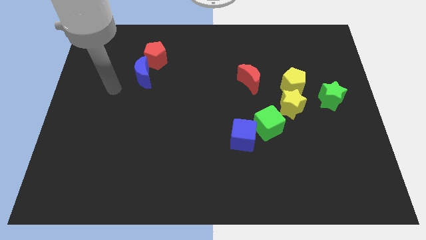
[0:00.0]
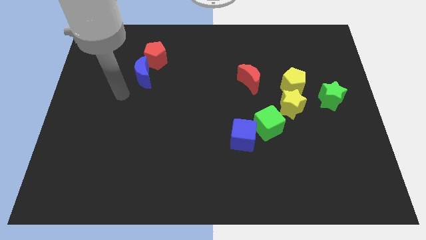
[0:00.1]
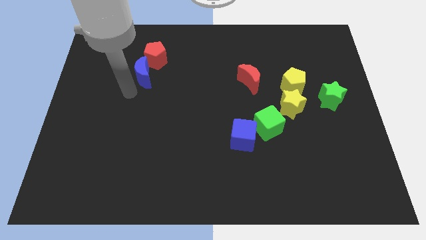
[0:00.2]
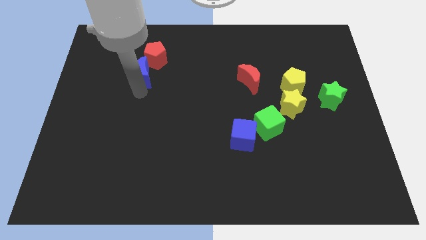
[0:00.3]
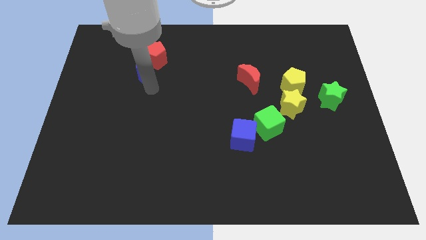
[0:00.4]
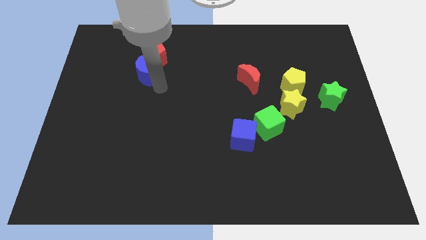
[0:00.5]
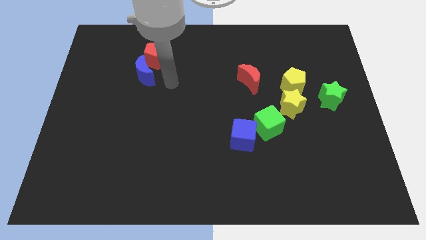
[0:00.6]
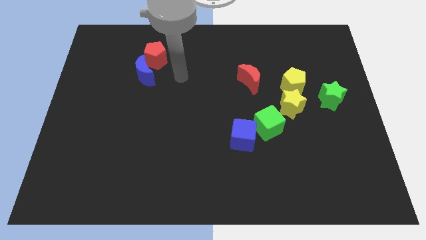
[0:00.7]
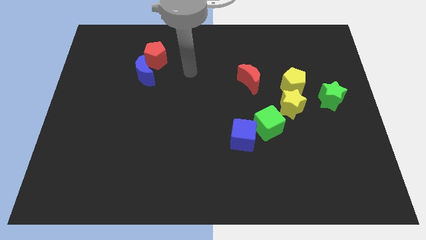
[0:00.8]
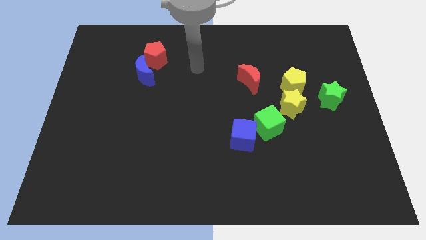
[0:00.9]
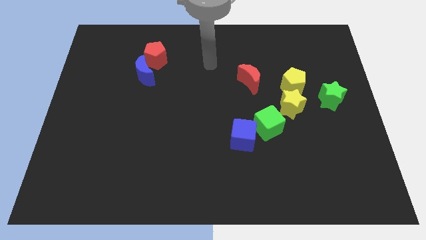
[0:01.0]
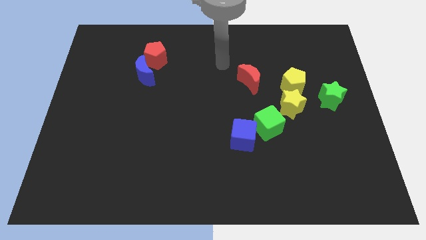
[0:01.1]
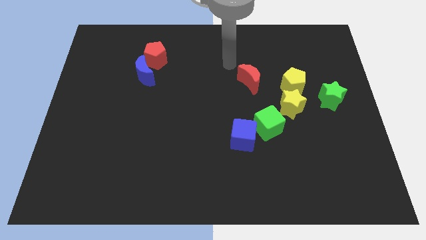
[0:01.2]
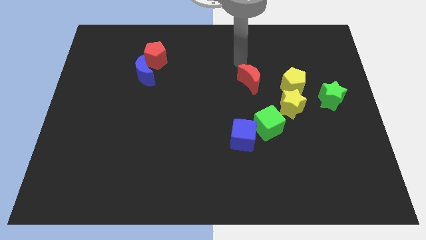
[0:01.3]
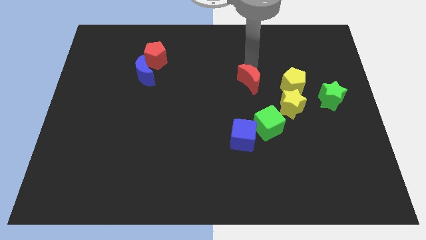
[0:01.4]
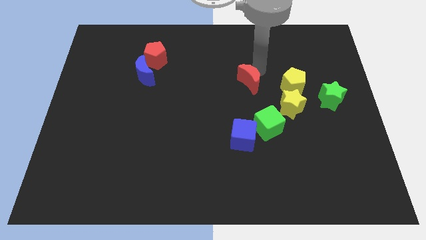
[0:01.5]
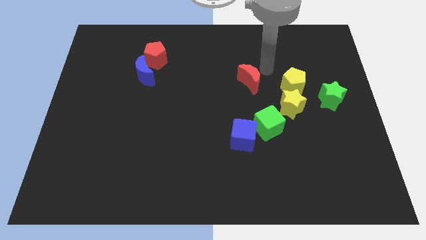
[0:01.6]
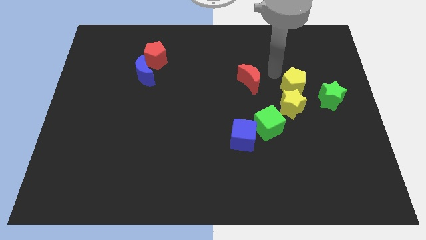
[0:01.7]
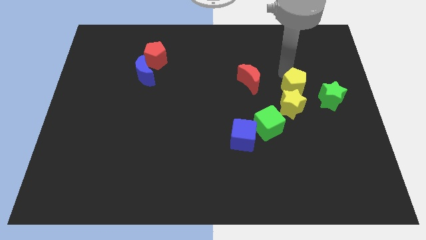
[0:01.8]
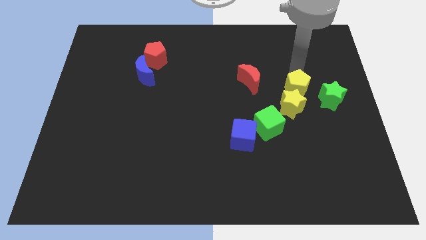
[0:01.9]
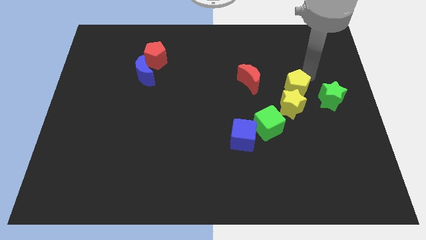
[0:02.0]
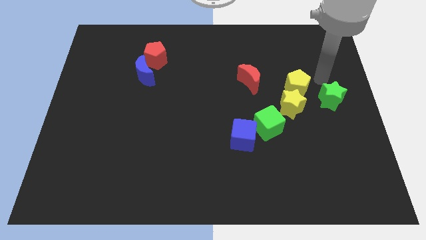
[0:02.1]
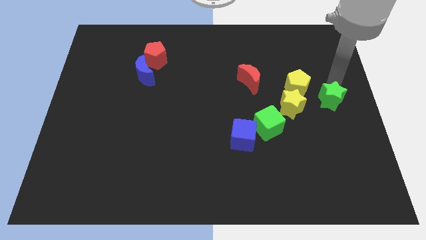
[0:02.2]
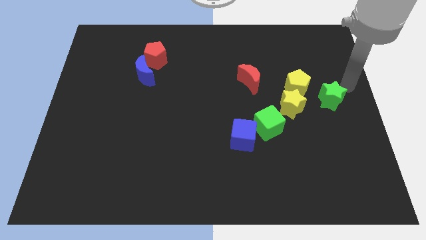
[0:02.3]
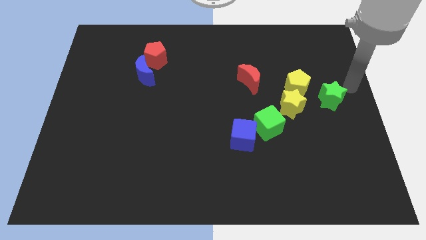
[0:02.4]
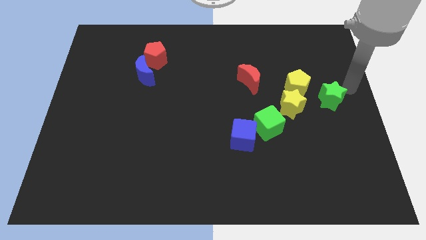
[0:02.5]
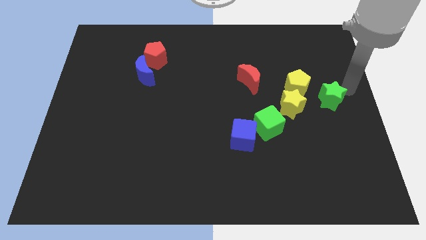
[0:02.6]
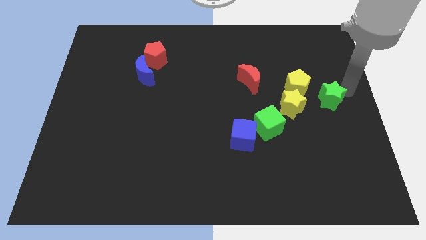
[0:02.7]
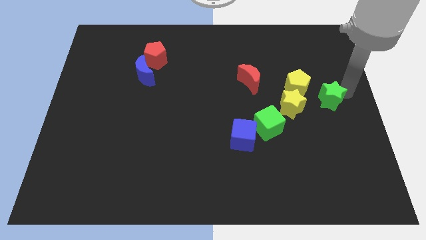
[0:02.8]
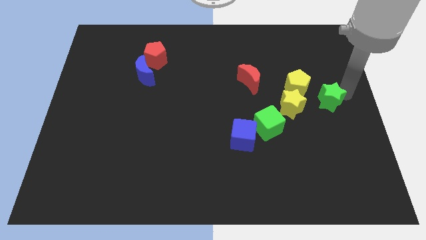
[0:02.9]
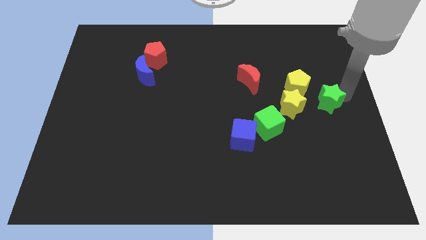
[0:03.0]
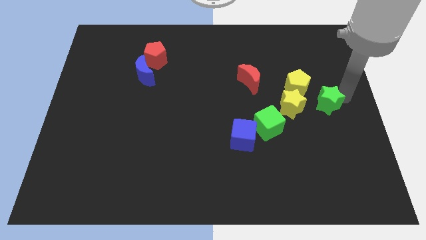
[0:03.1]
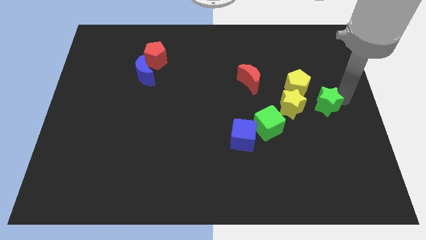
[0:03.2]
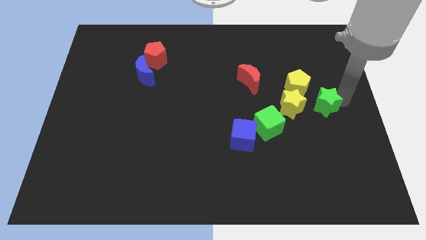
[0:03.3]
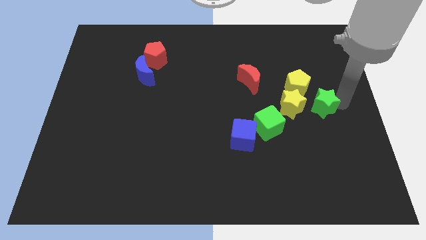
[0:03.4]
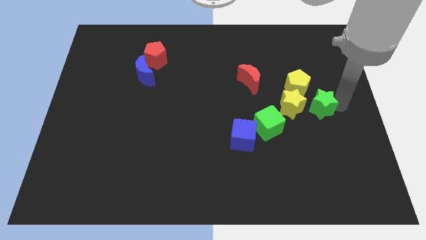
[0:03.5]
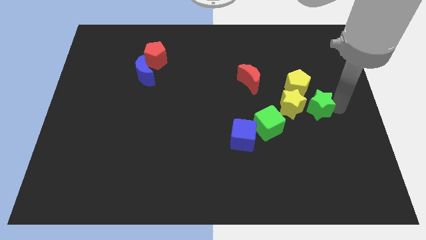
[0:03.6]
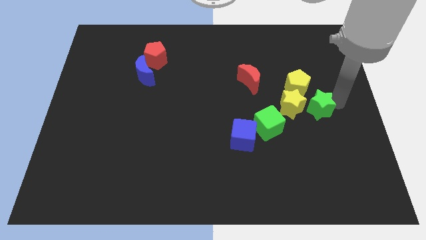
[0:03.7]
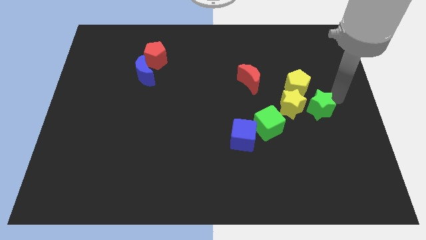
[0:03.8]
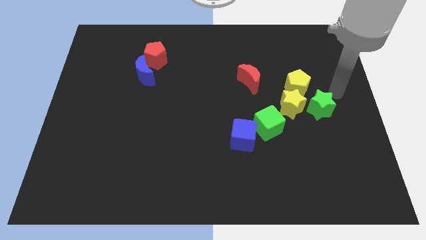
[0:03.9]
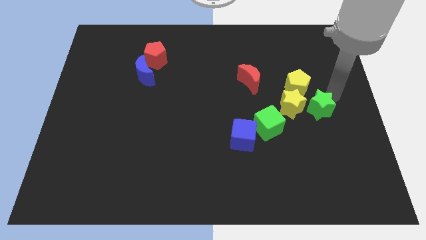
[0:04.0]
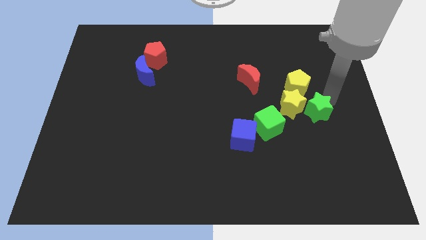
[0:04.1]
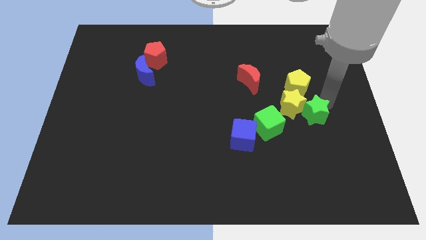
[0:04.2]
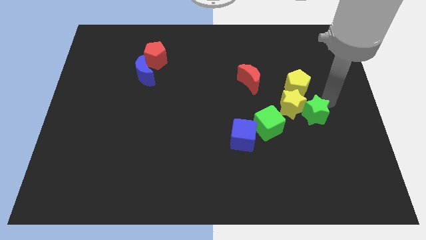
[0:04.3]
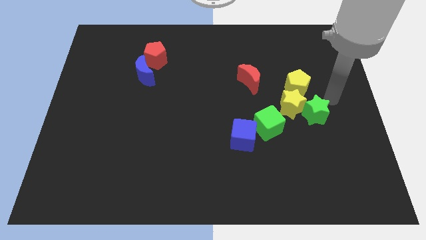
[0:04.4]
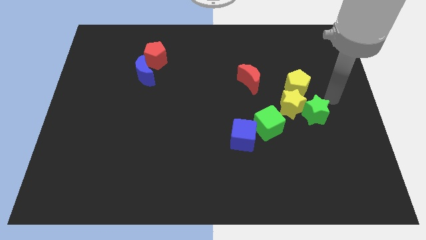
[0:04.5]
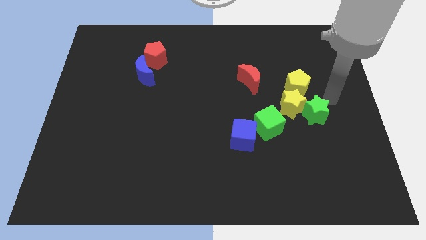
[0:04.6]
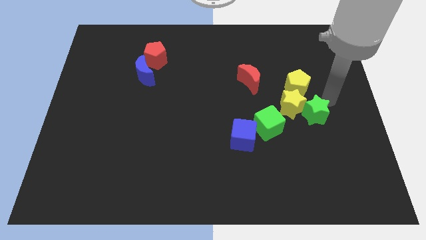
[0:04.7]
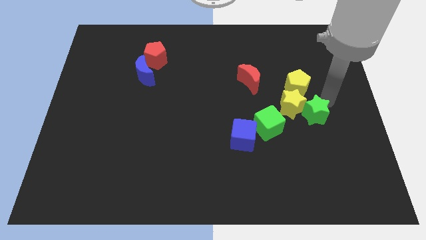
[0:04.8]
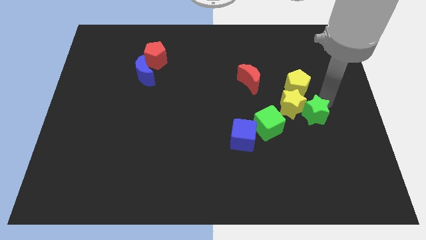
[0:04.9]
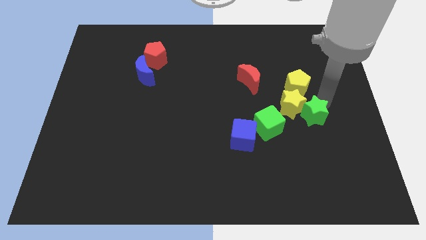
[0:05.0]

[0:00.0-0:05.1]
slide the green star down and to the left diagonally a little

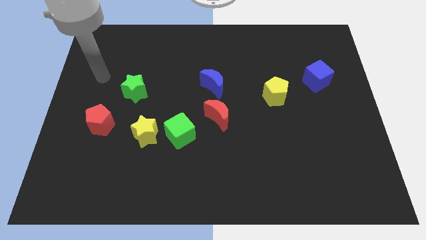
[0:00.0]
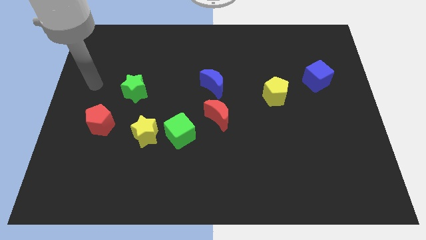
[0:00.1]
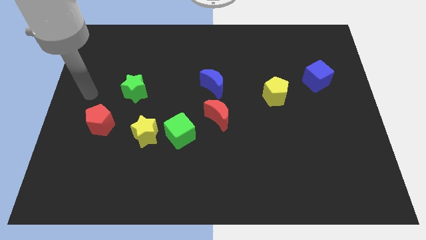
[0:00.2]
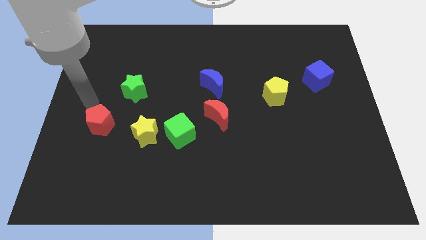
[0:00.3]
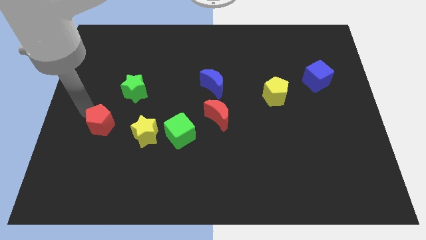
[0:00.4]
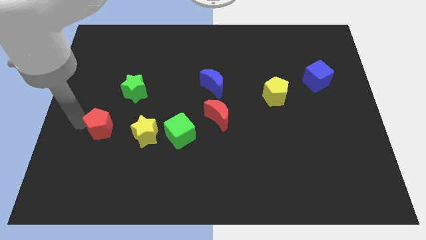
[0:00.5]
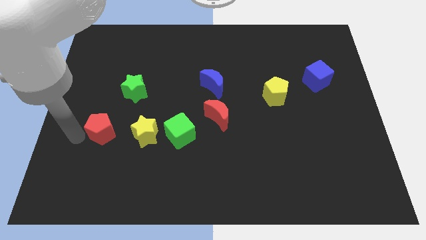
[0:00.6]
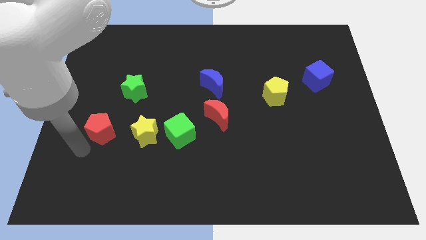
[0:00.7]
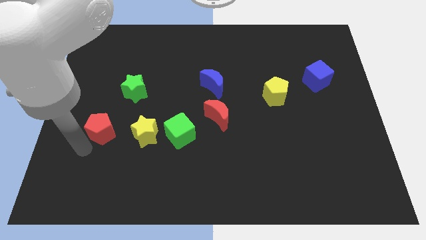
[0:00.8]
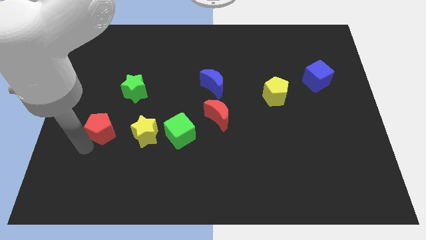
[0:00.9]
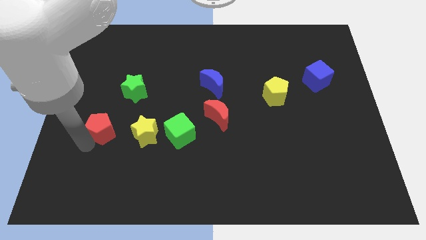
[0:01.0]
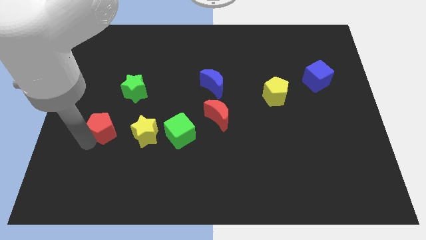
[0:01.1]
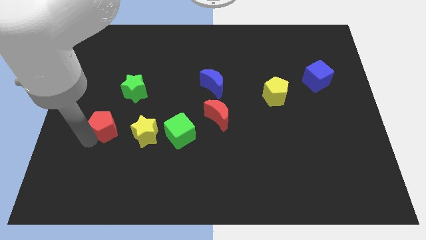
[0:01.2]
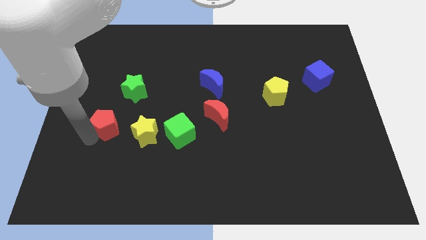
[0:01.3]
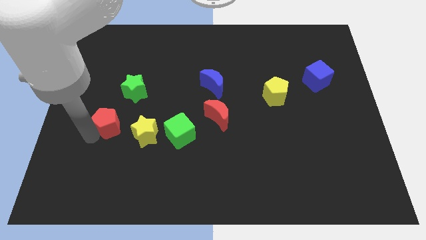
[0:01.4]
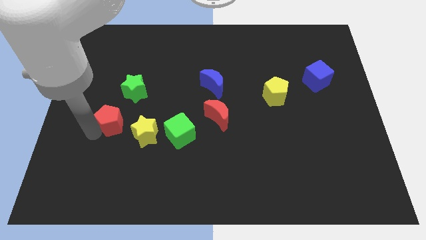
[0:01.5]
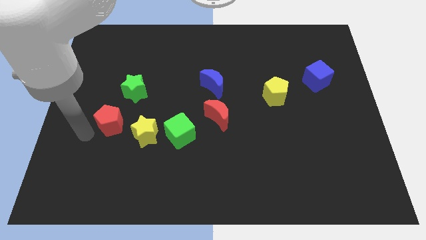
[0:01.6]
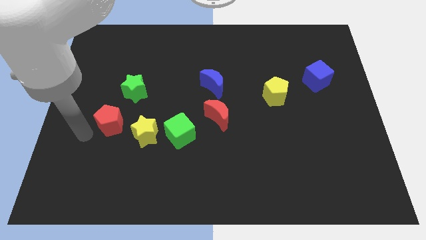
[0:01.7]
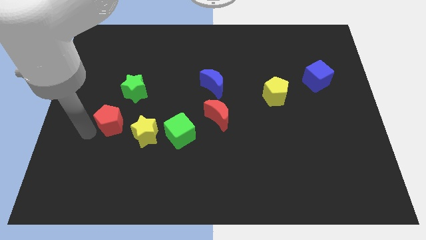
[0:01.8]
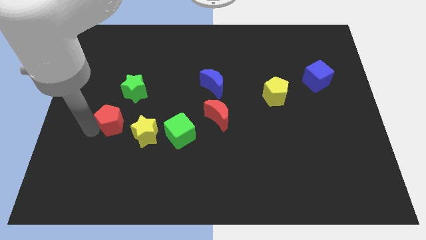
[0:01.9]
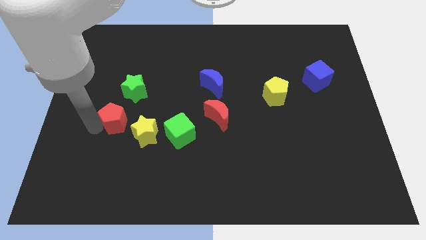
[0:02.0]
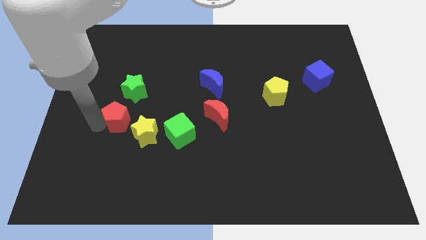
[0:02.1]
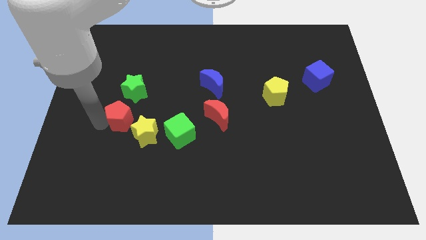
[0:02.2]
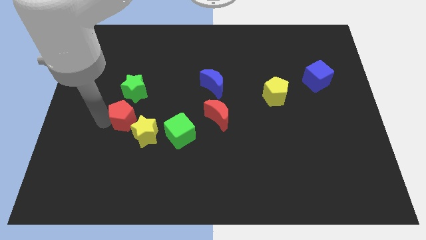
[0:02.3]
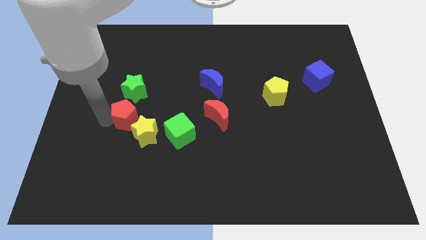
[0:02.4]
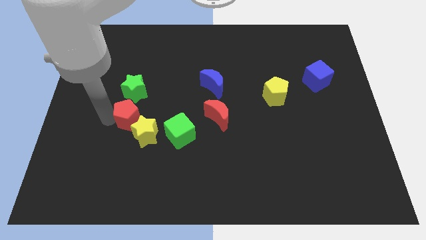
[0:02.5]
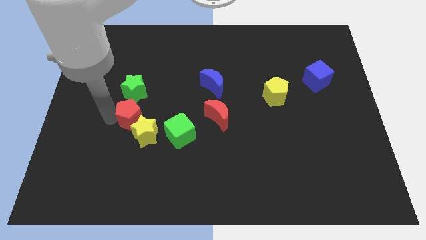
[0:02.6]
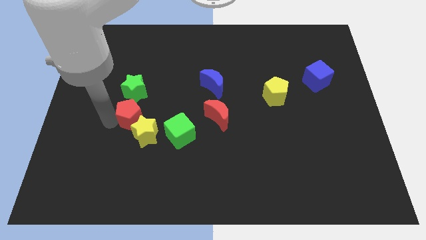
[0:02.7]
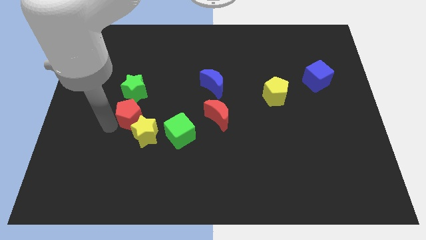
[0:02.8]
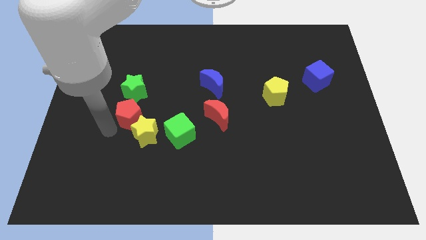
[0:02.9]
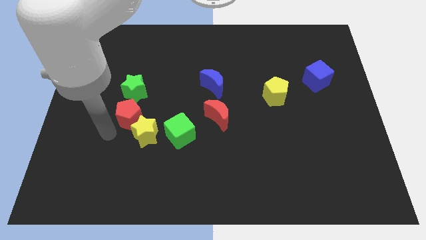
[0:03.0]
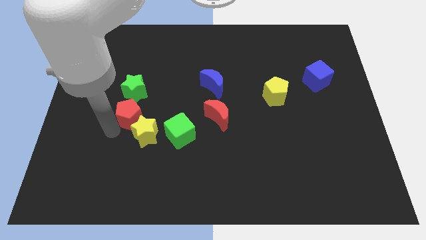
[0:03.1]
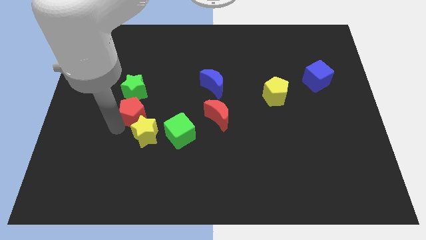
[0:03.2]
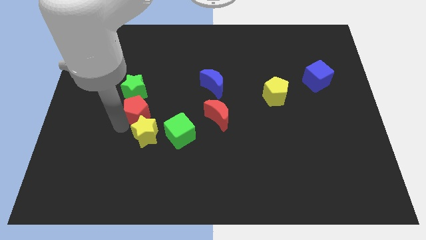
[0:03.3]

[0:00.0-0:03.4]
slightly slide the red pentagon up and right
